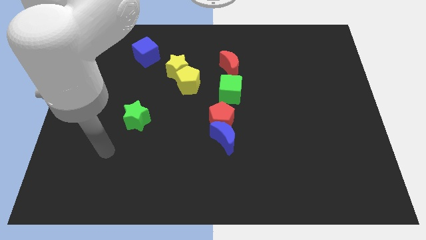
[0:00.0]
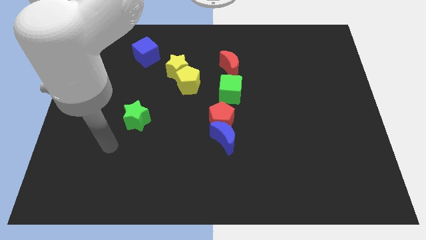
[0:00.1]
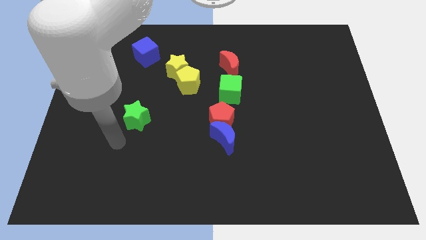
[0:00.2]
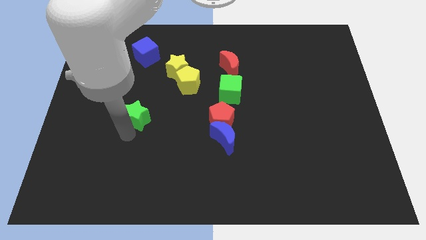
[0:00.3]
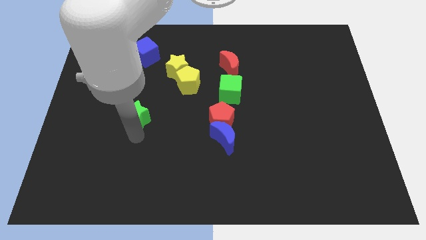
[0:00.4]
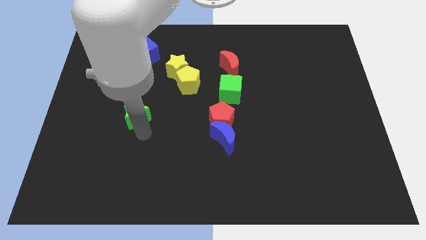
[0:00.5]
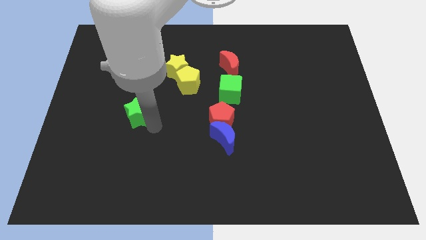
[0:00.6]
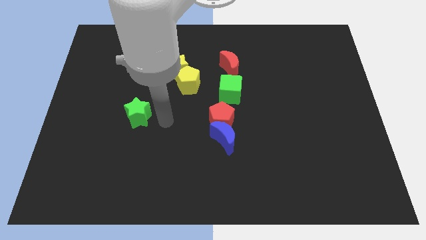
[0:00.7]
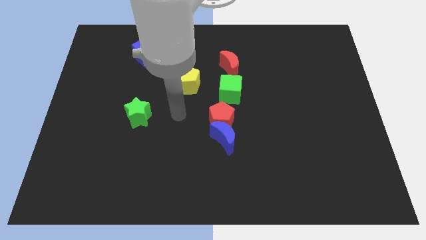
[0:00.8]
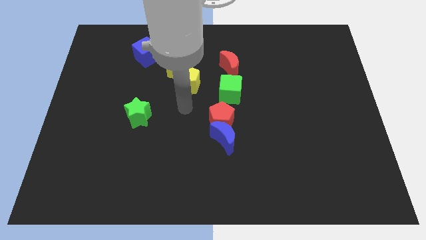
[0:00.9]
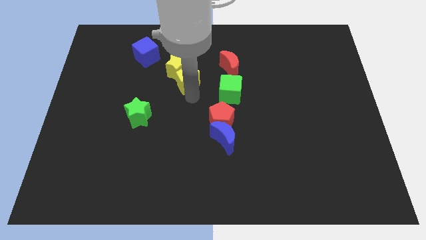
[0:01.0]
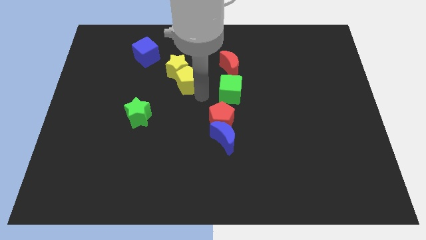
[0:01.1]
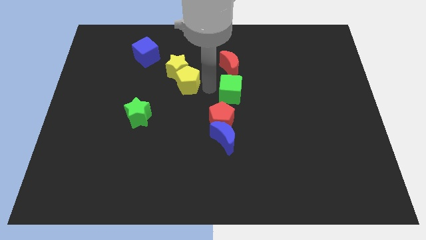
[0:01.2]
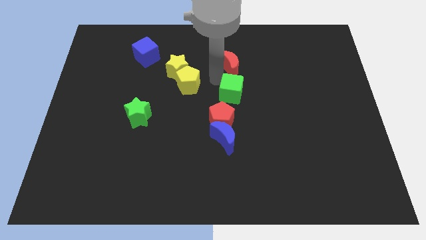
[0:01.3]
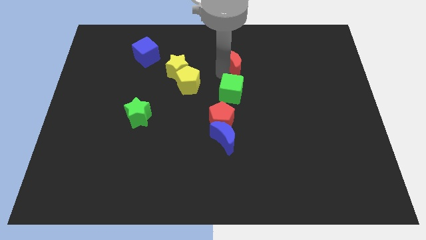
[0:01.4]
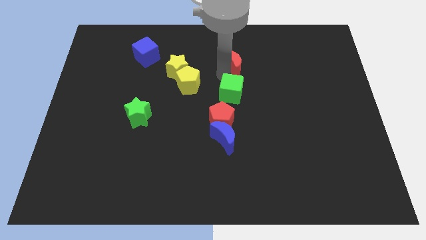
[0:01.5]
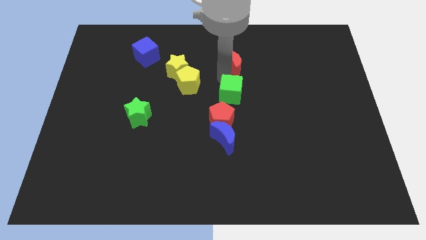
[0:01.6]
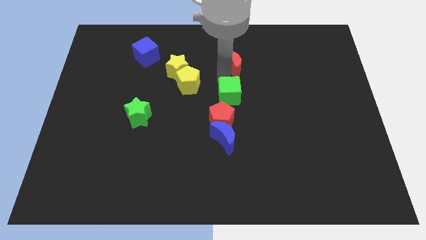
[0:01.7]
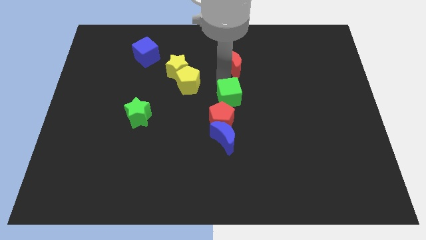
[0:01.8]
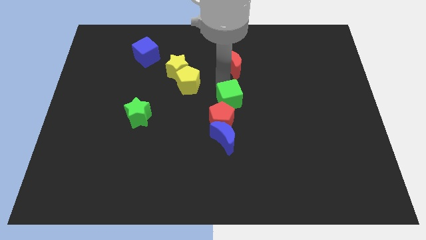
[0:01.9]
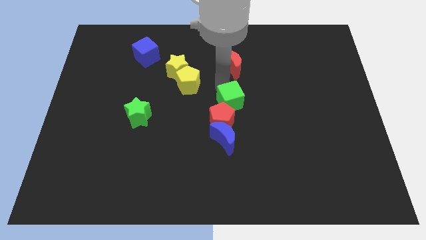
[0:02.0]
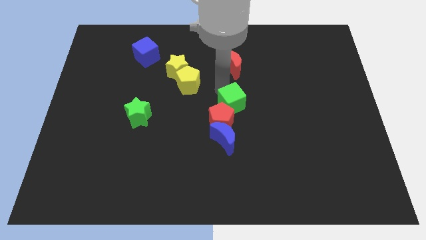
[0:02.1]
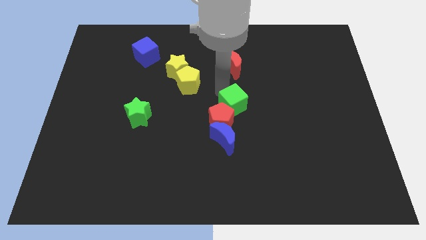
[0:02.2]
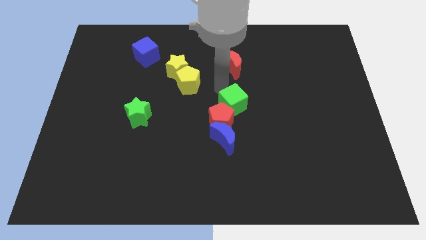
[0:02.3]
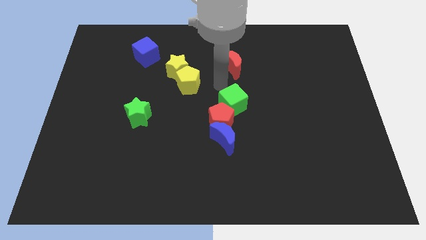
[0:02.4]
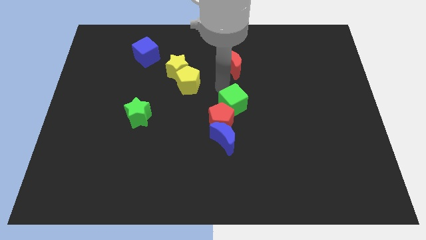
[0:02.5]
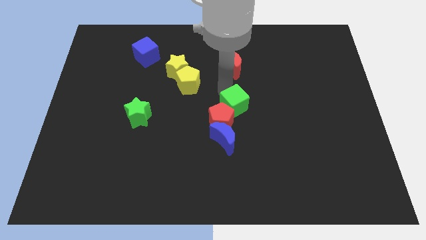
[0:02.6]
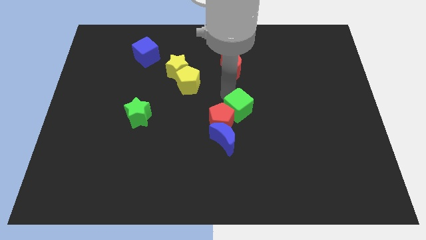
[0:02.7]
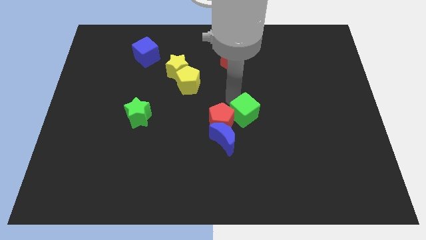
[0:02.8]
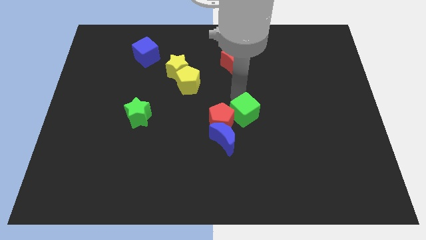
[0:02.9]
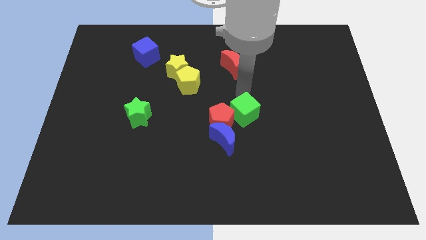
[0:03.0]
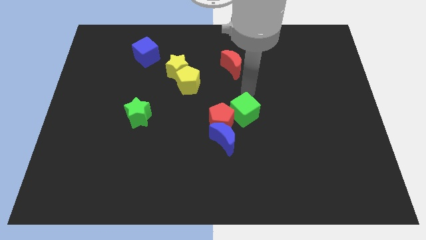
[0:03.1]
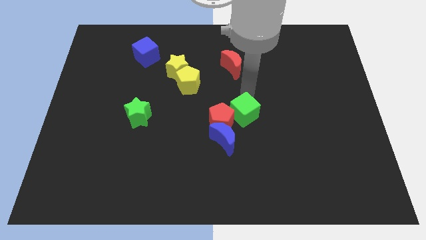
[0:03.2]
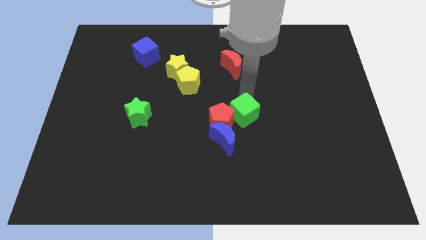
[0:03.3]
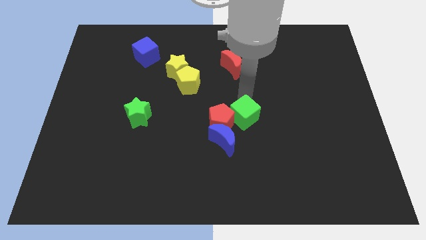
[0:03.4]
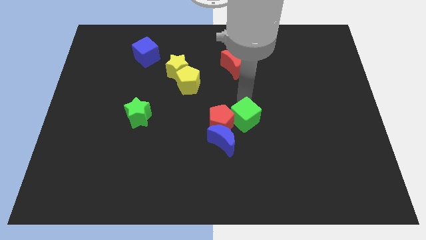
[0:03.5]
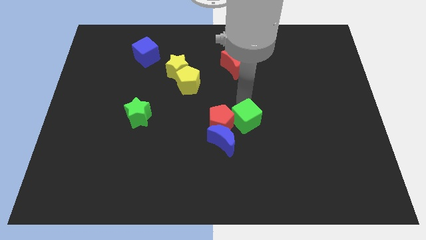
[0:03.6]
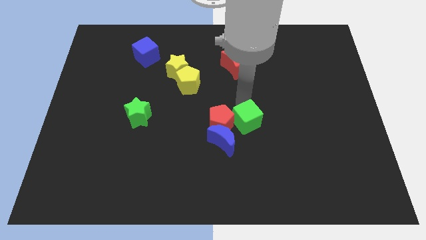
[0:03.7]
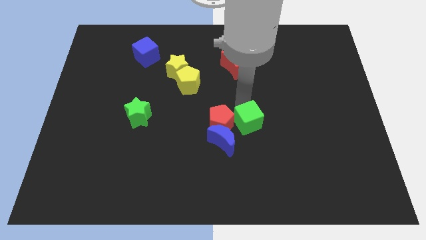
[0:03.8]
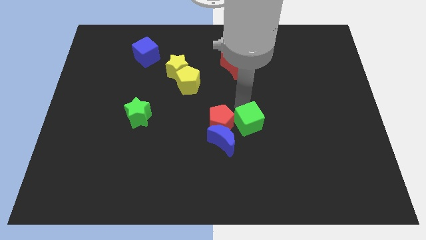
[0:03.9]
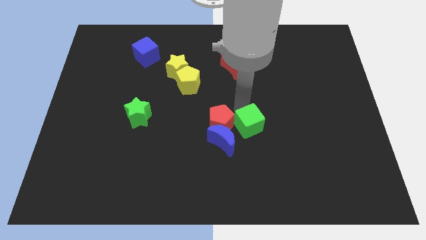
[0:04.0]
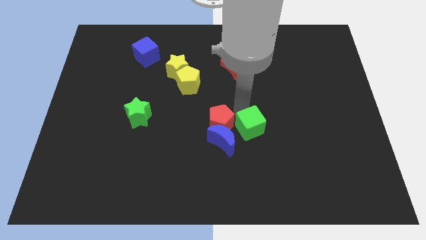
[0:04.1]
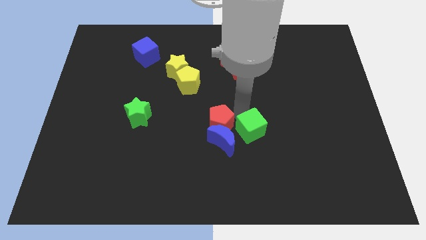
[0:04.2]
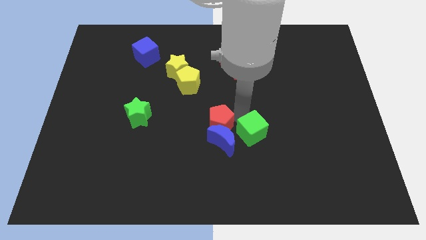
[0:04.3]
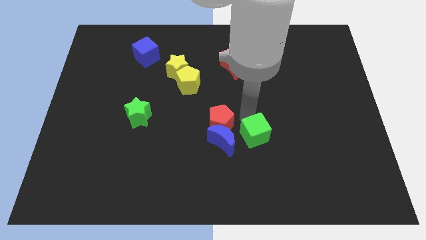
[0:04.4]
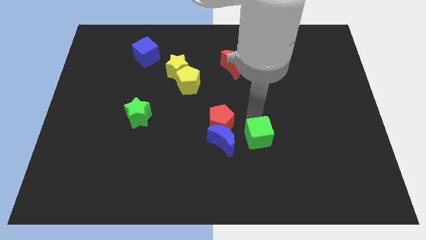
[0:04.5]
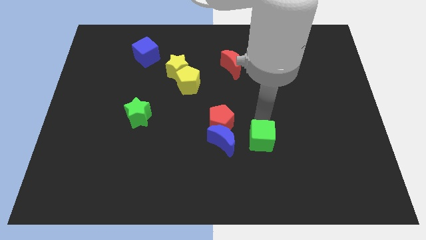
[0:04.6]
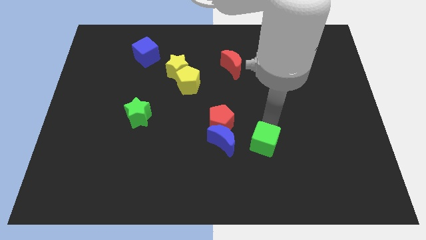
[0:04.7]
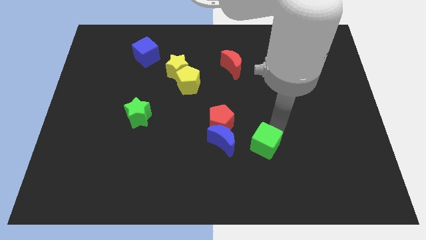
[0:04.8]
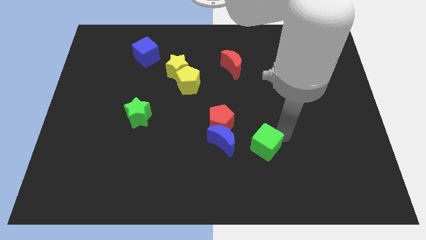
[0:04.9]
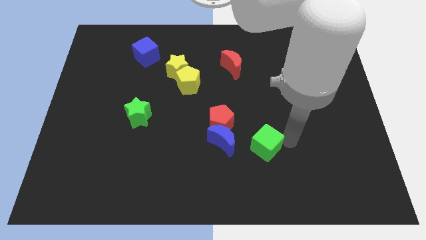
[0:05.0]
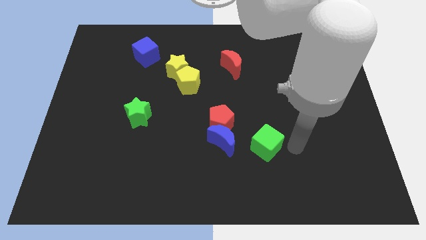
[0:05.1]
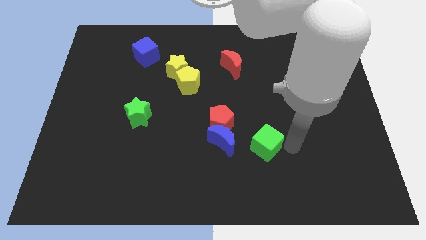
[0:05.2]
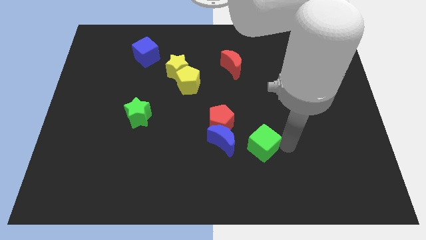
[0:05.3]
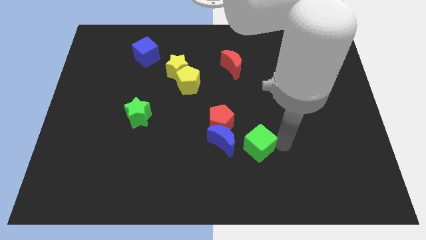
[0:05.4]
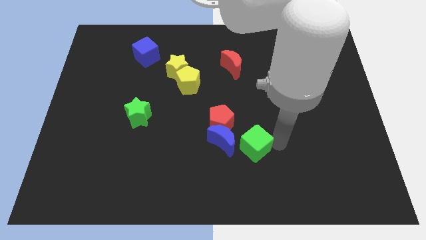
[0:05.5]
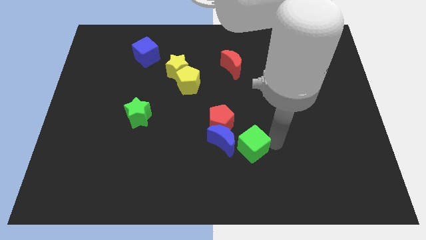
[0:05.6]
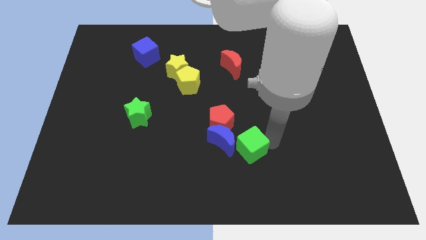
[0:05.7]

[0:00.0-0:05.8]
push the green cube close to the blue moon

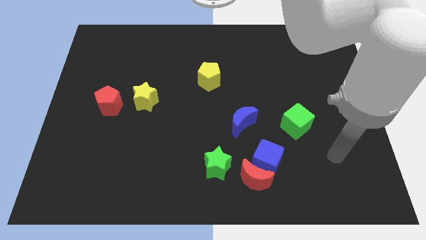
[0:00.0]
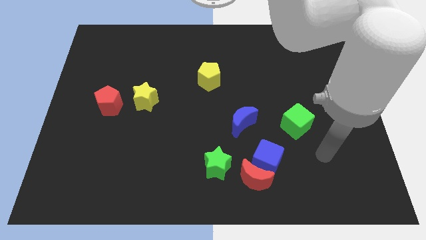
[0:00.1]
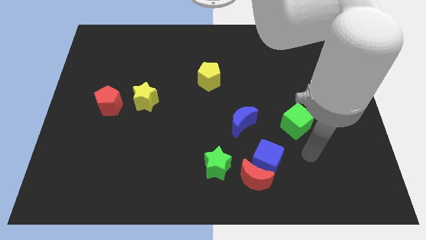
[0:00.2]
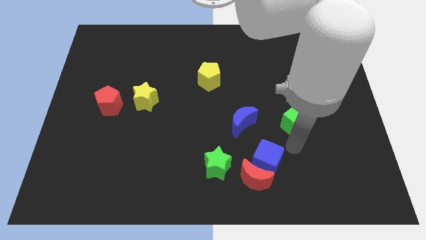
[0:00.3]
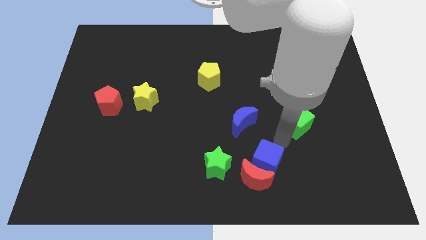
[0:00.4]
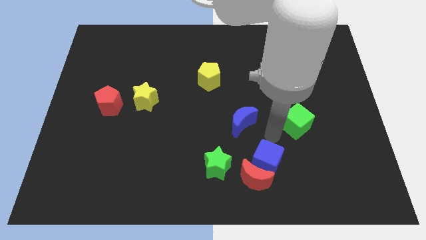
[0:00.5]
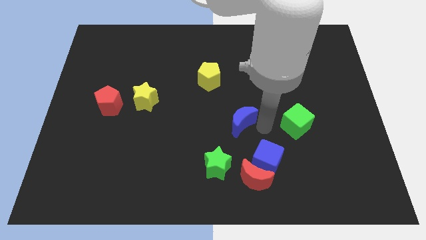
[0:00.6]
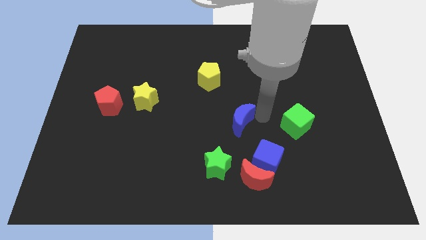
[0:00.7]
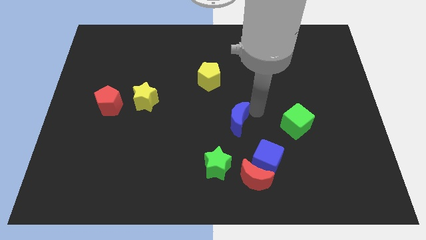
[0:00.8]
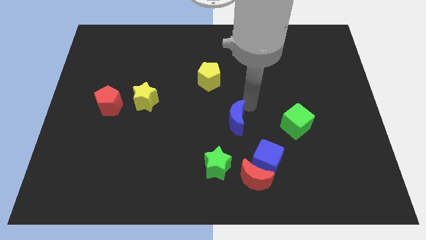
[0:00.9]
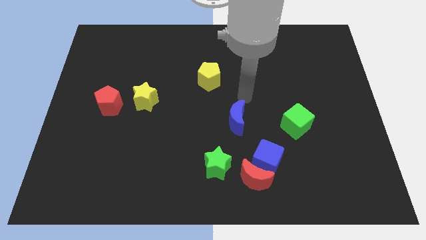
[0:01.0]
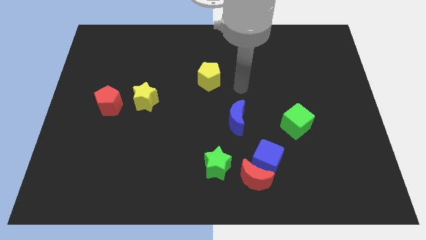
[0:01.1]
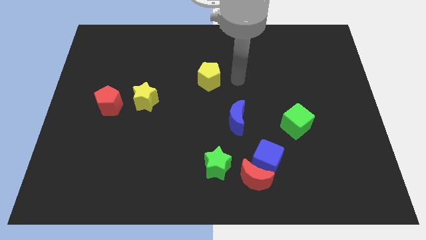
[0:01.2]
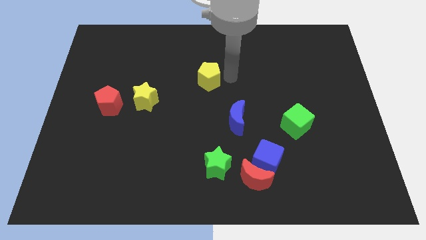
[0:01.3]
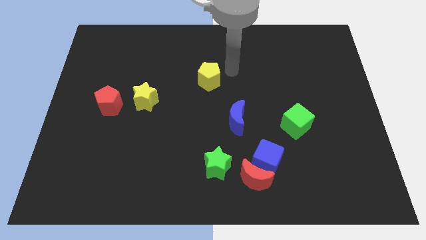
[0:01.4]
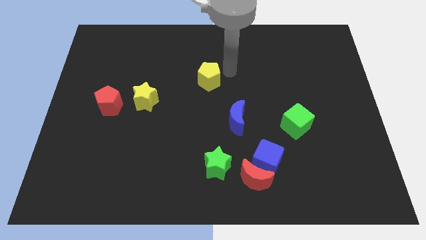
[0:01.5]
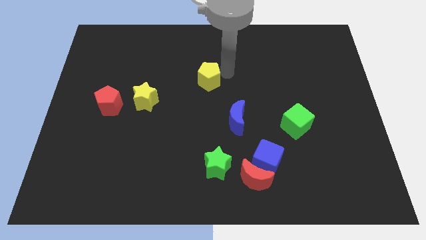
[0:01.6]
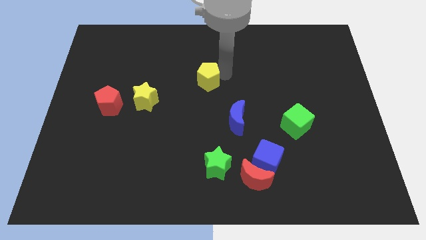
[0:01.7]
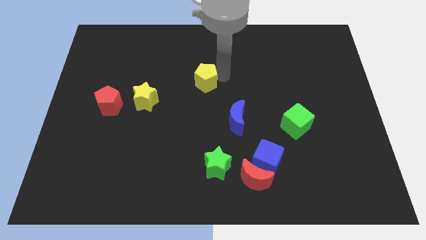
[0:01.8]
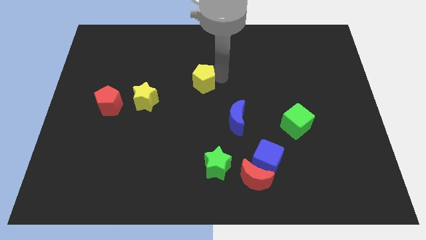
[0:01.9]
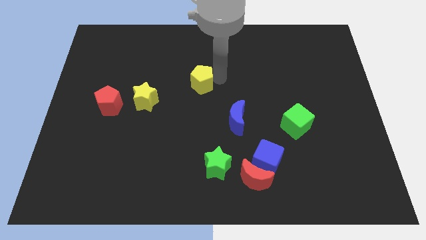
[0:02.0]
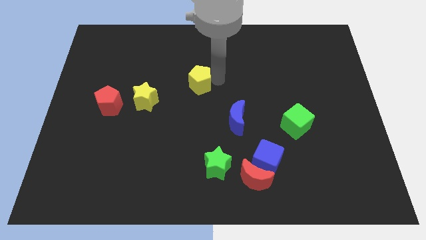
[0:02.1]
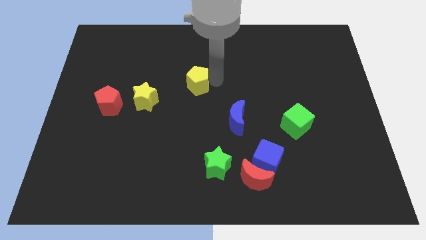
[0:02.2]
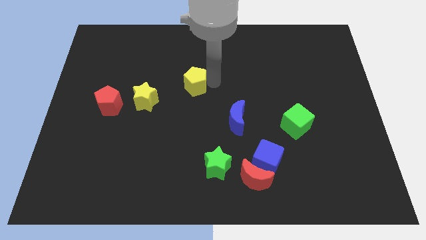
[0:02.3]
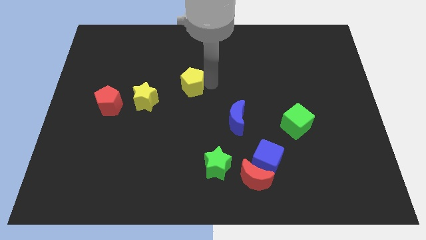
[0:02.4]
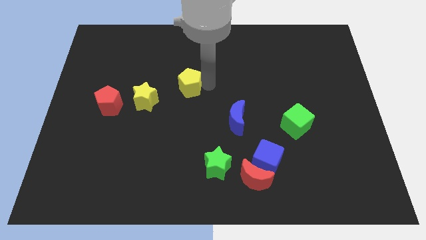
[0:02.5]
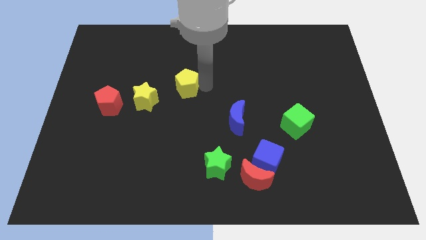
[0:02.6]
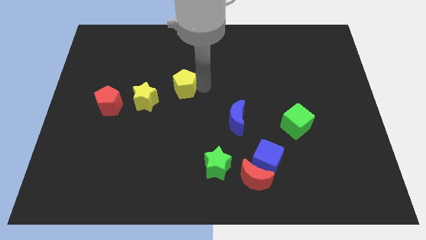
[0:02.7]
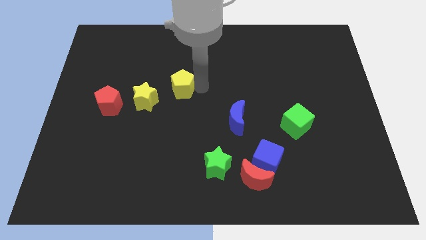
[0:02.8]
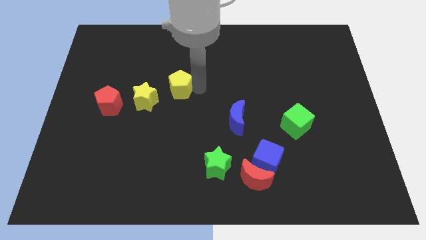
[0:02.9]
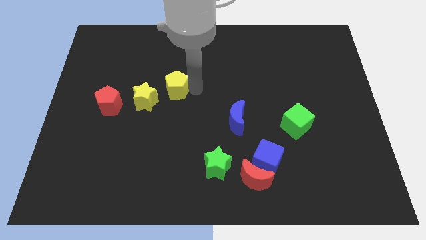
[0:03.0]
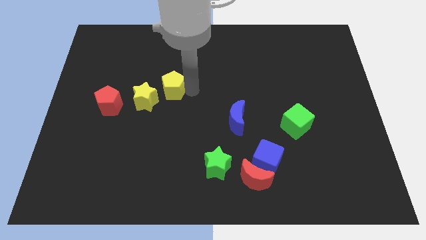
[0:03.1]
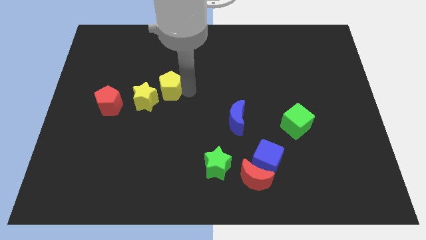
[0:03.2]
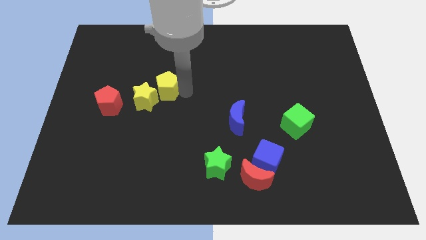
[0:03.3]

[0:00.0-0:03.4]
push the yellow pentagon to the yellow star
